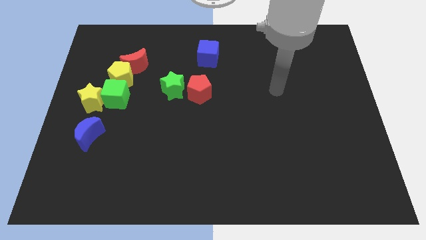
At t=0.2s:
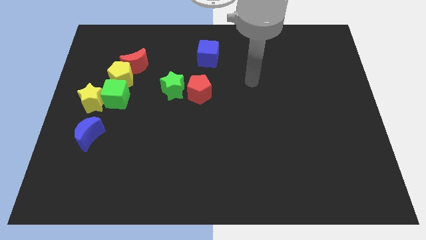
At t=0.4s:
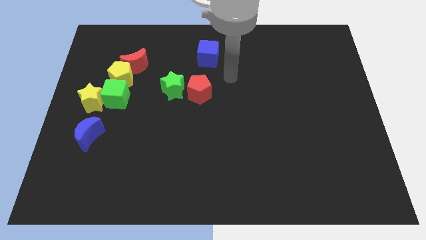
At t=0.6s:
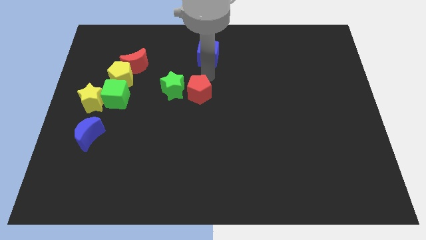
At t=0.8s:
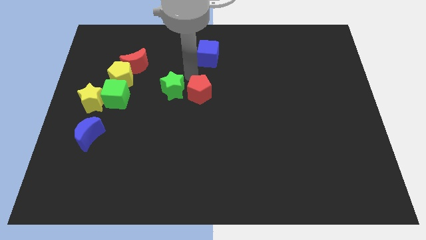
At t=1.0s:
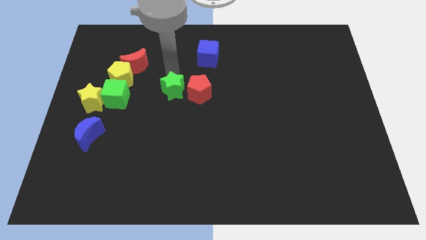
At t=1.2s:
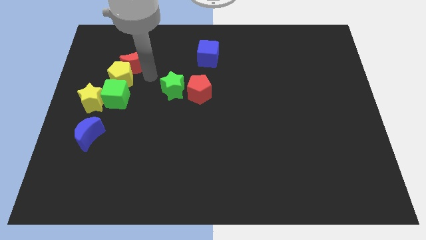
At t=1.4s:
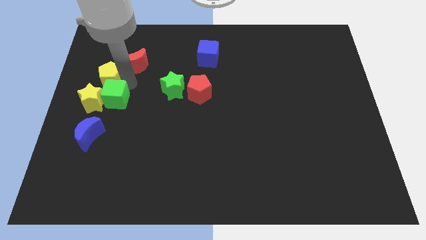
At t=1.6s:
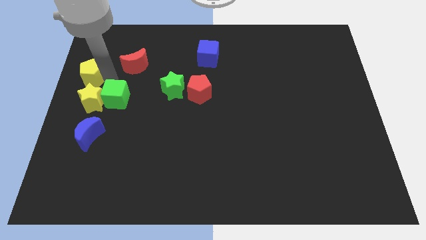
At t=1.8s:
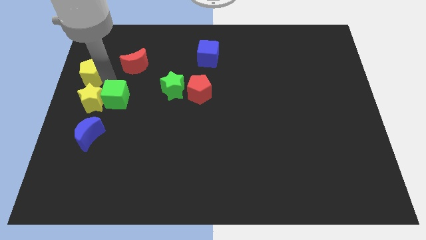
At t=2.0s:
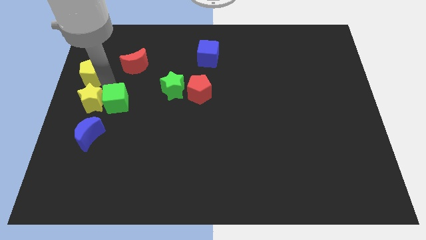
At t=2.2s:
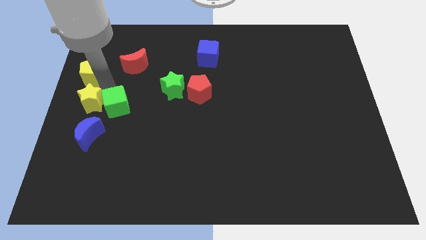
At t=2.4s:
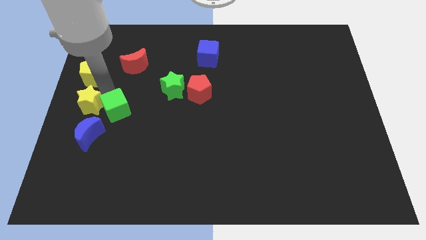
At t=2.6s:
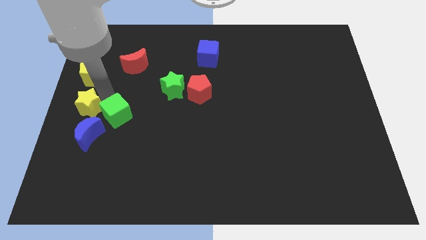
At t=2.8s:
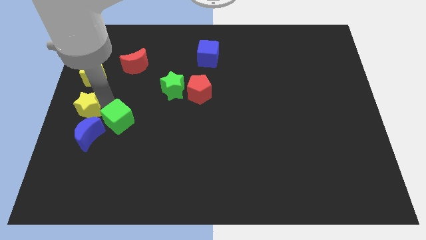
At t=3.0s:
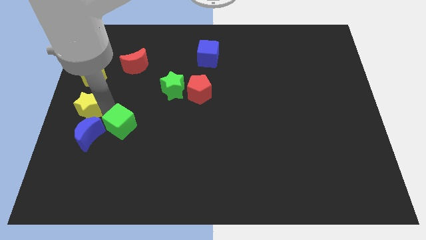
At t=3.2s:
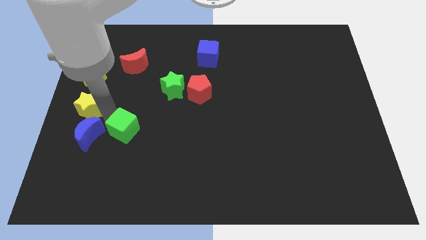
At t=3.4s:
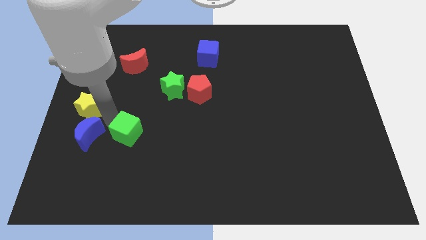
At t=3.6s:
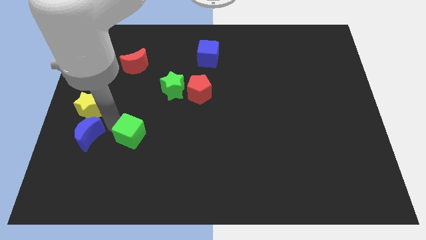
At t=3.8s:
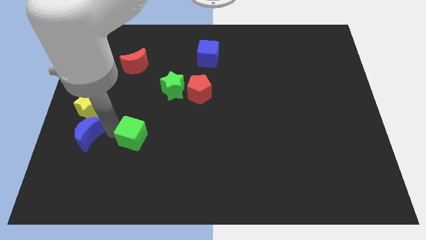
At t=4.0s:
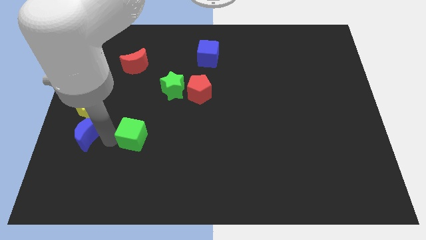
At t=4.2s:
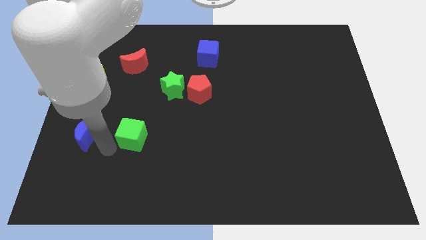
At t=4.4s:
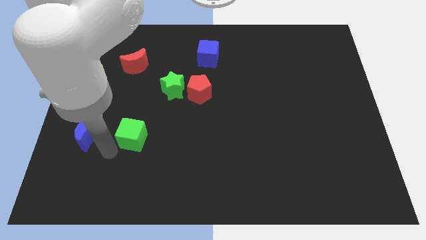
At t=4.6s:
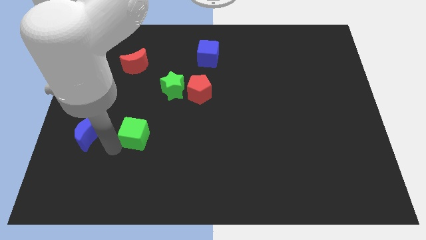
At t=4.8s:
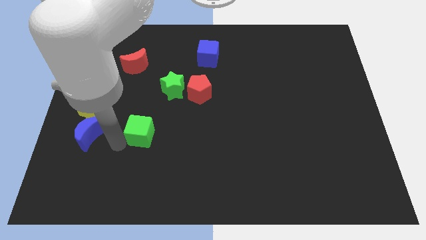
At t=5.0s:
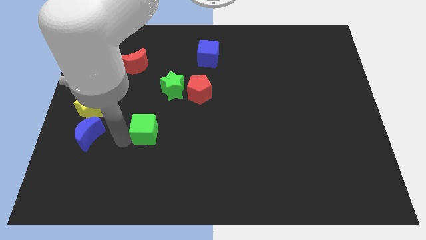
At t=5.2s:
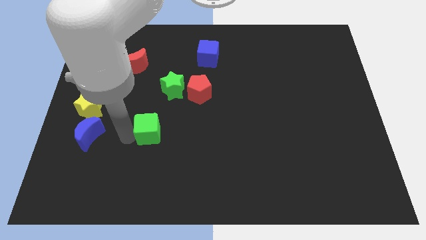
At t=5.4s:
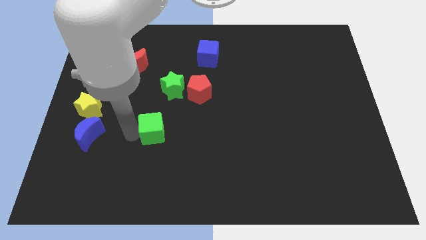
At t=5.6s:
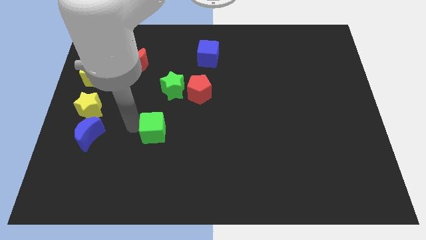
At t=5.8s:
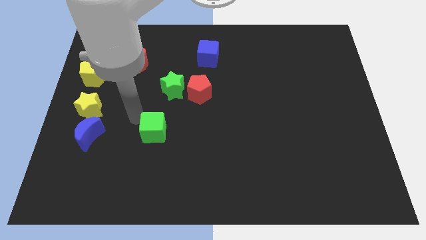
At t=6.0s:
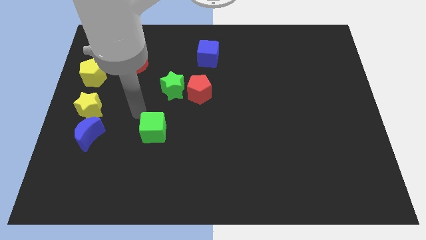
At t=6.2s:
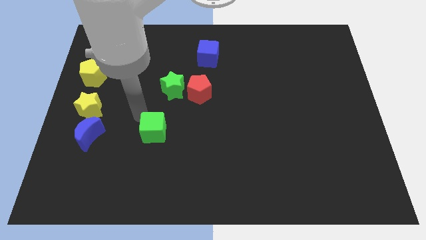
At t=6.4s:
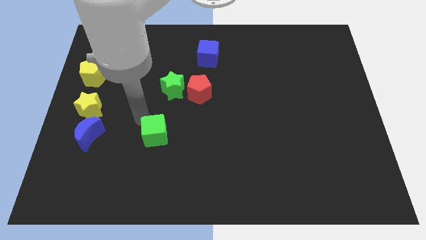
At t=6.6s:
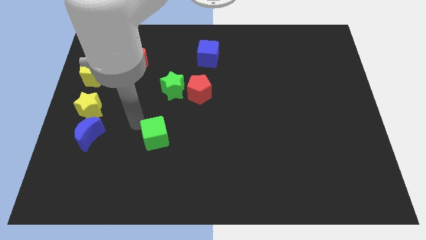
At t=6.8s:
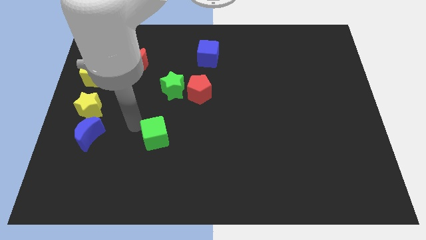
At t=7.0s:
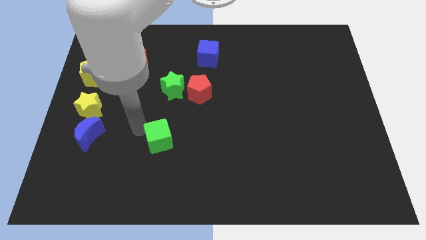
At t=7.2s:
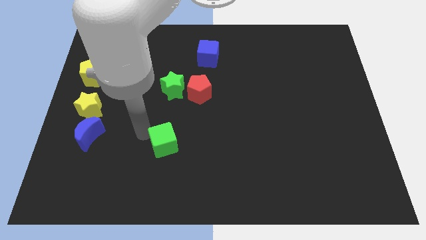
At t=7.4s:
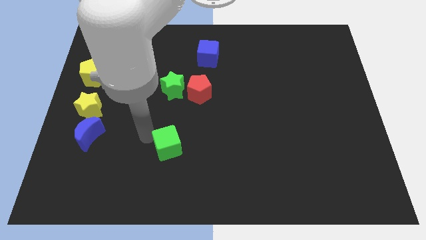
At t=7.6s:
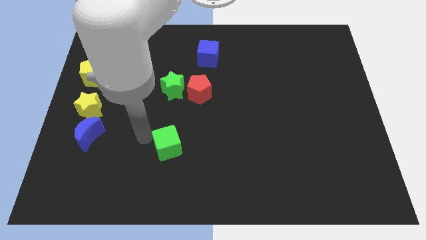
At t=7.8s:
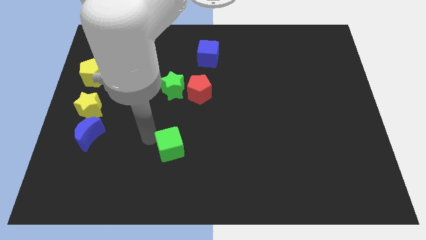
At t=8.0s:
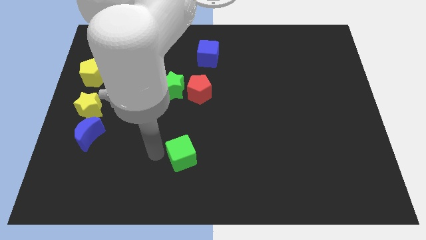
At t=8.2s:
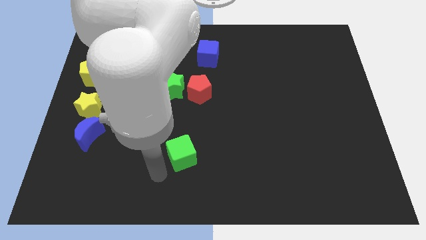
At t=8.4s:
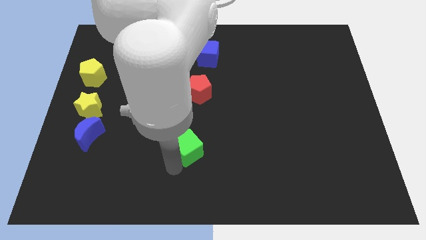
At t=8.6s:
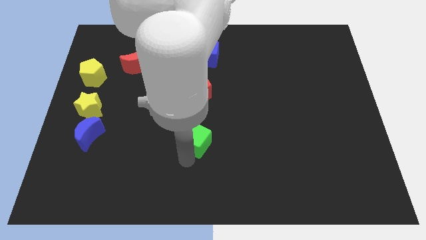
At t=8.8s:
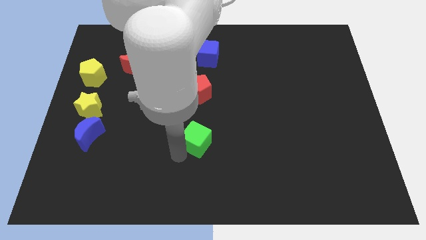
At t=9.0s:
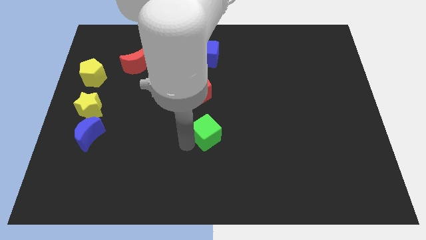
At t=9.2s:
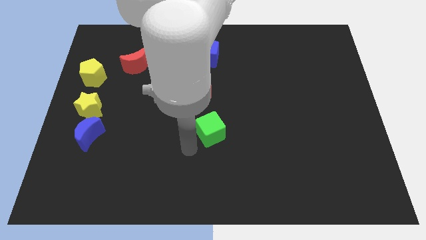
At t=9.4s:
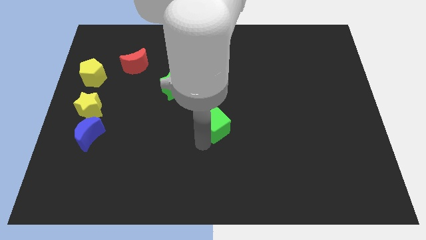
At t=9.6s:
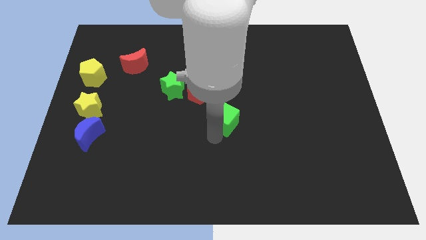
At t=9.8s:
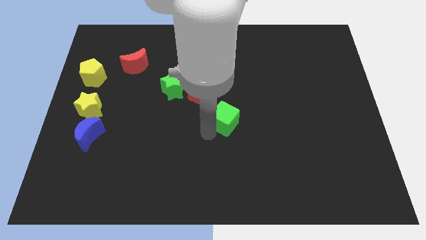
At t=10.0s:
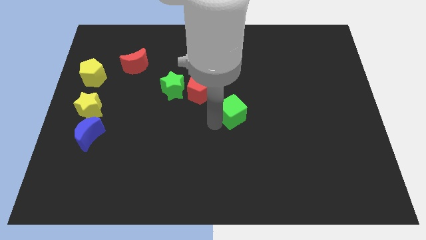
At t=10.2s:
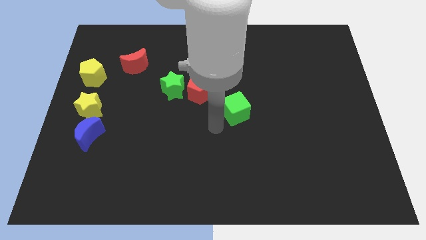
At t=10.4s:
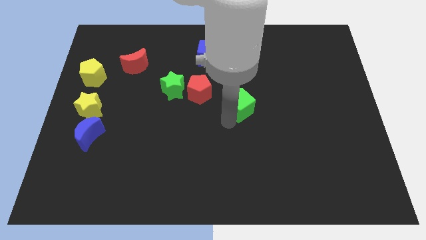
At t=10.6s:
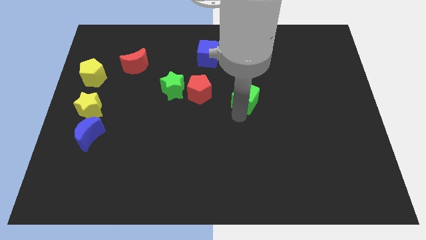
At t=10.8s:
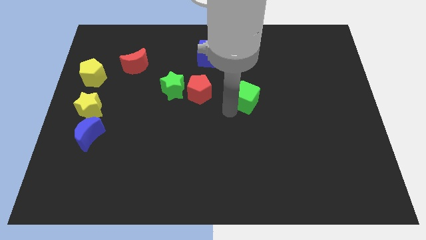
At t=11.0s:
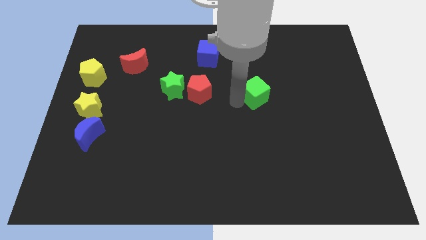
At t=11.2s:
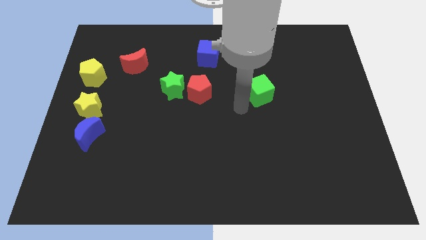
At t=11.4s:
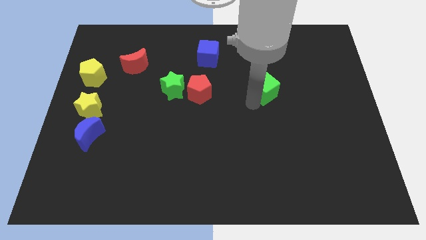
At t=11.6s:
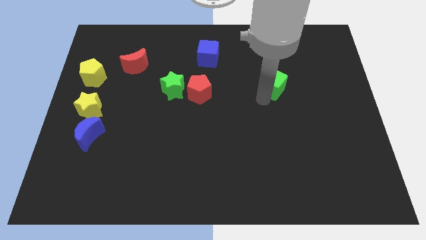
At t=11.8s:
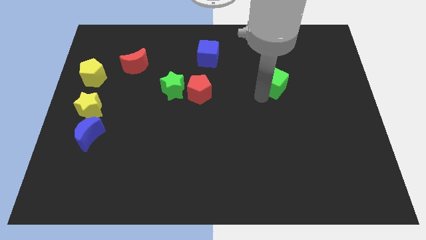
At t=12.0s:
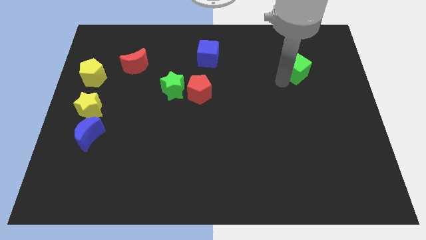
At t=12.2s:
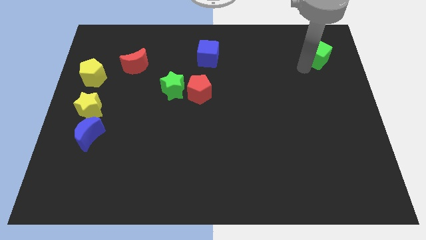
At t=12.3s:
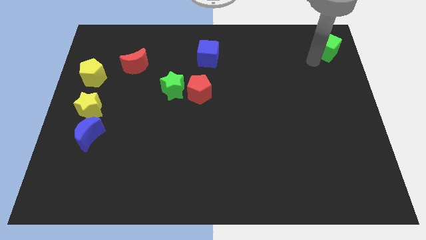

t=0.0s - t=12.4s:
put the green cube to the upper right corner

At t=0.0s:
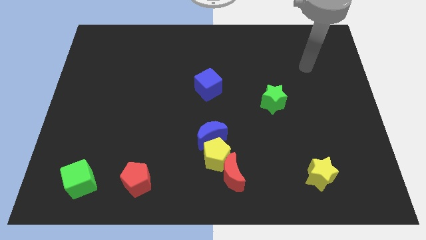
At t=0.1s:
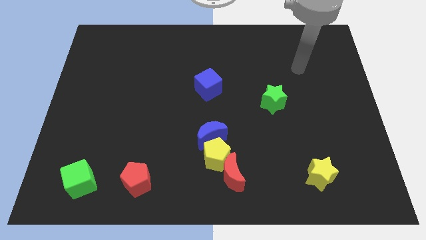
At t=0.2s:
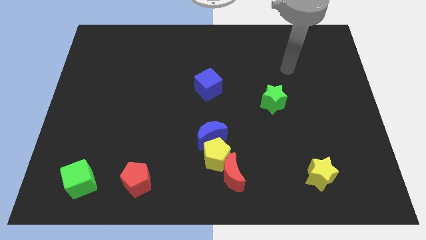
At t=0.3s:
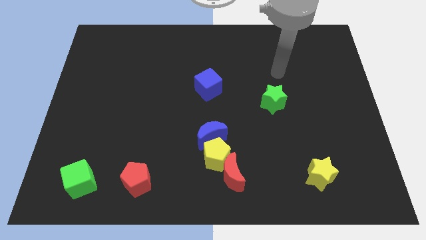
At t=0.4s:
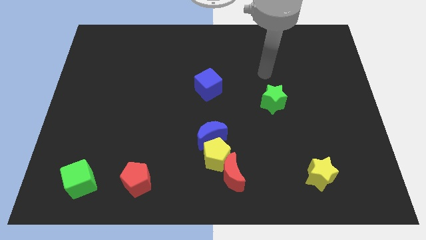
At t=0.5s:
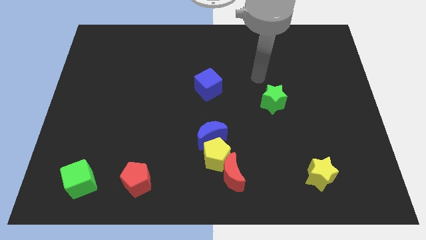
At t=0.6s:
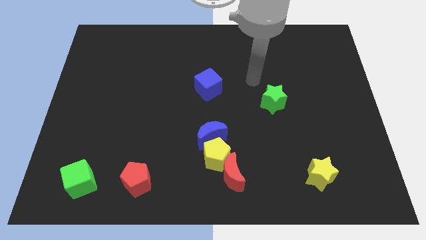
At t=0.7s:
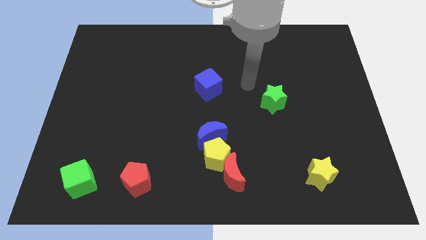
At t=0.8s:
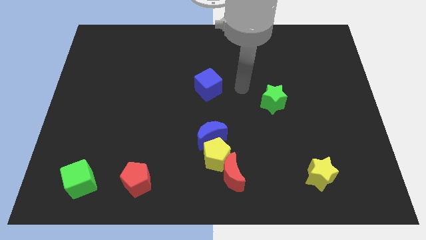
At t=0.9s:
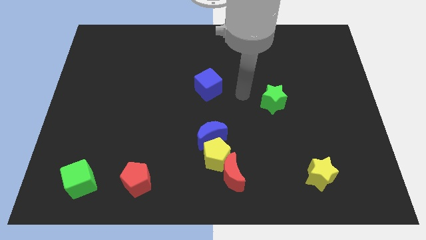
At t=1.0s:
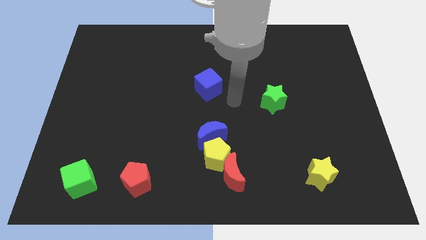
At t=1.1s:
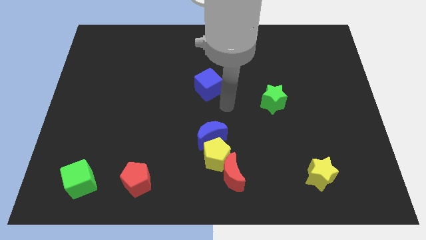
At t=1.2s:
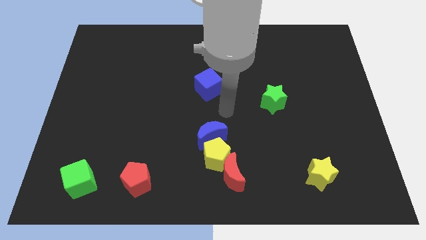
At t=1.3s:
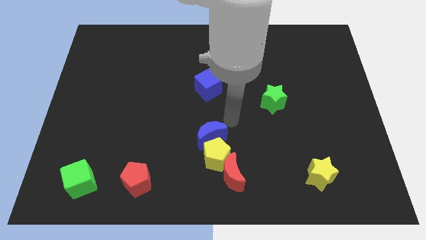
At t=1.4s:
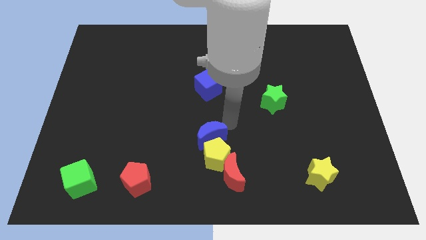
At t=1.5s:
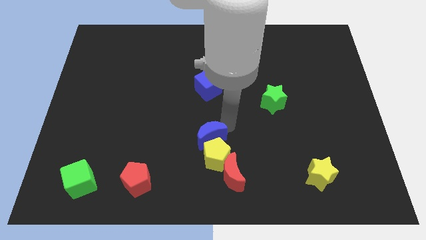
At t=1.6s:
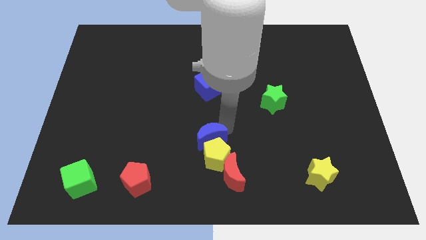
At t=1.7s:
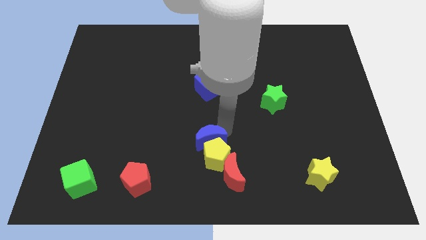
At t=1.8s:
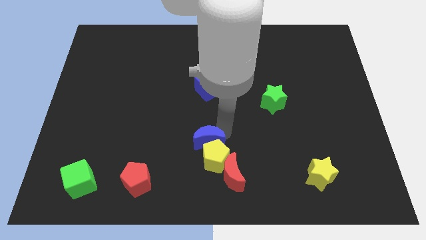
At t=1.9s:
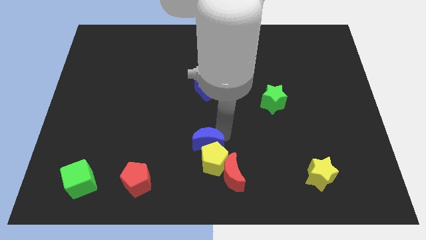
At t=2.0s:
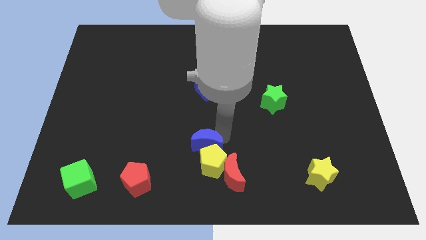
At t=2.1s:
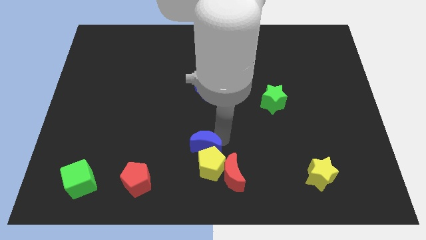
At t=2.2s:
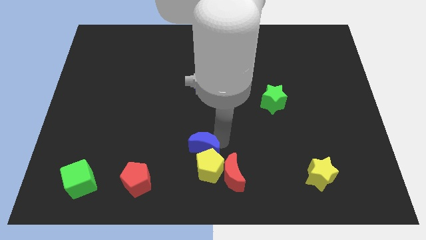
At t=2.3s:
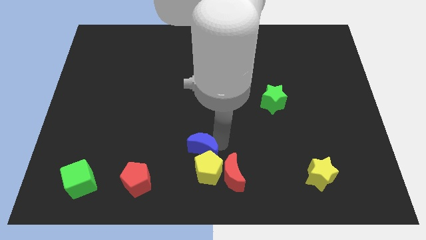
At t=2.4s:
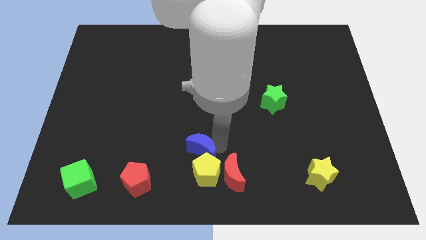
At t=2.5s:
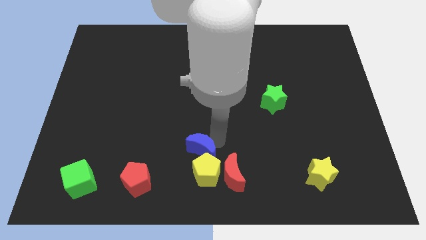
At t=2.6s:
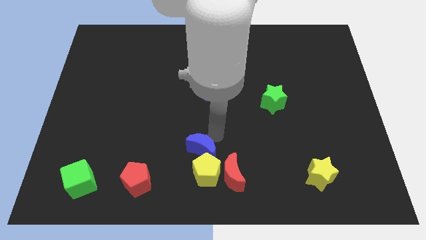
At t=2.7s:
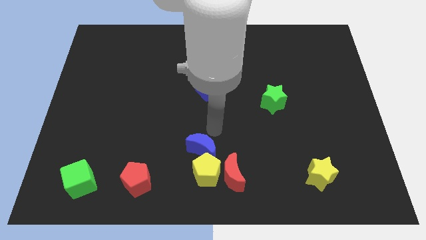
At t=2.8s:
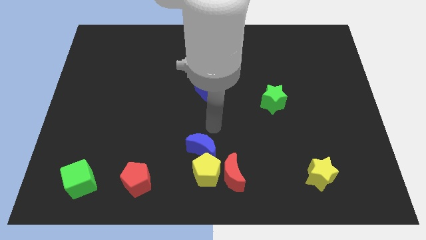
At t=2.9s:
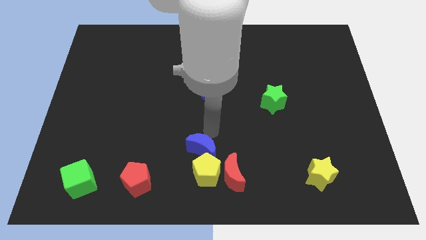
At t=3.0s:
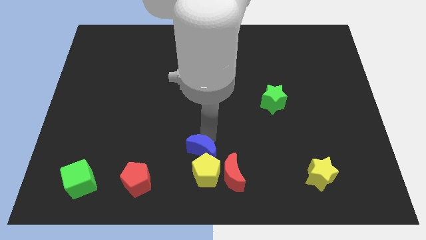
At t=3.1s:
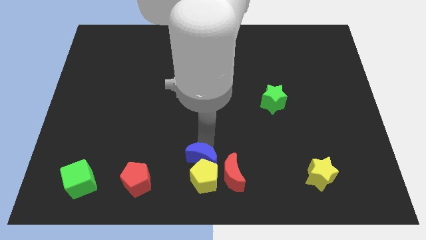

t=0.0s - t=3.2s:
move the blue moon to the bottom
